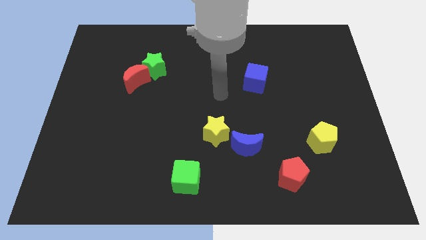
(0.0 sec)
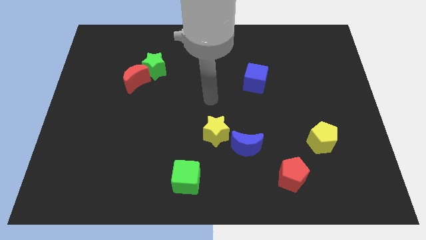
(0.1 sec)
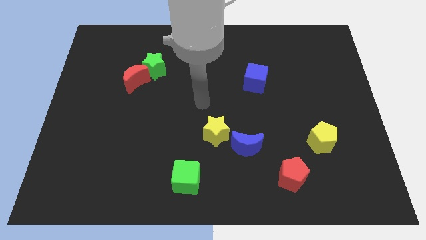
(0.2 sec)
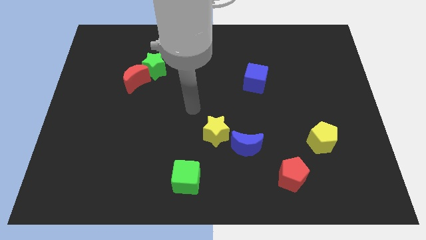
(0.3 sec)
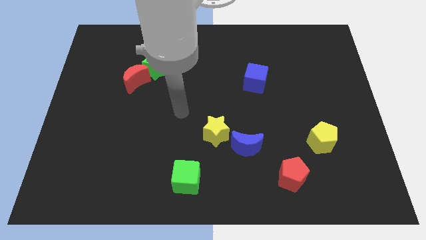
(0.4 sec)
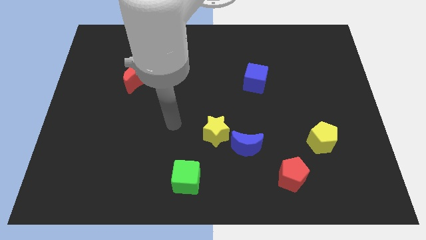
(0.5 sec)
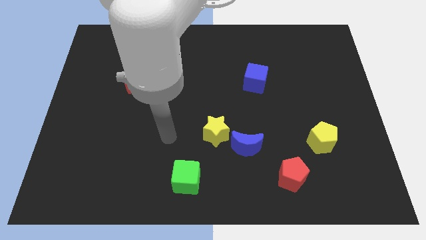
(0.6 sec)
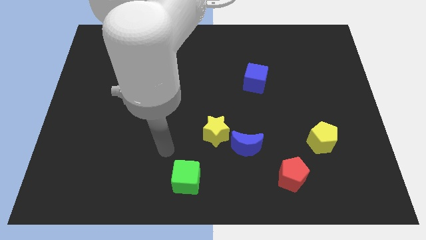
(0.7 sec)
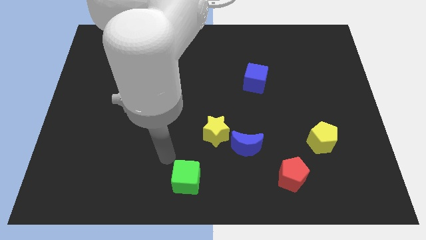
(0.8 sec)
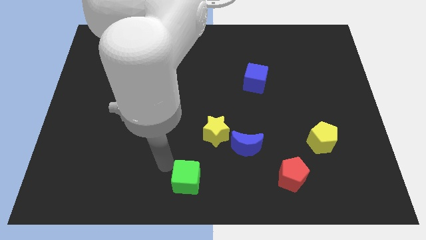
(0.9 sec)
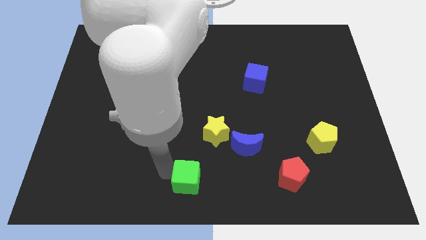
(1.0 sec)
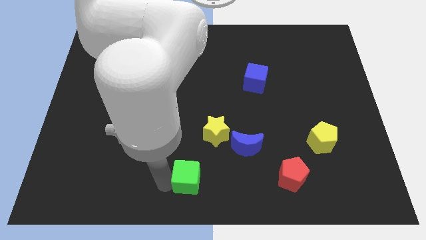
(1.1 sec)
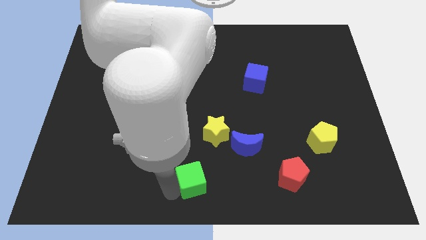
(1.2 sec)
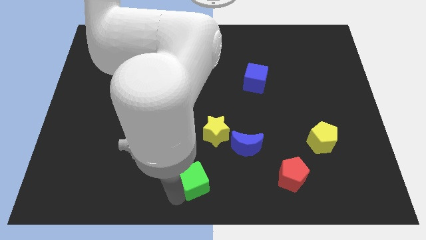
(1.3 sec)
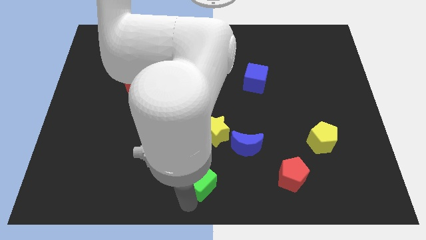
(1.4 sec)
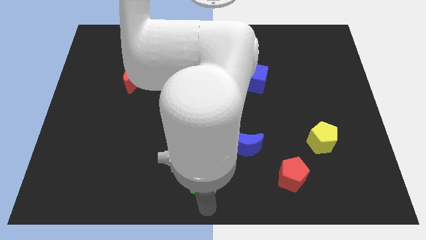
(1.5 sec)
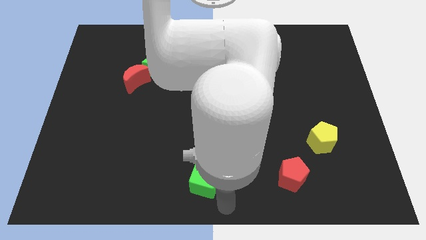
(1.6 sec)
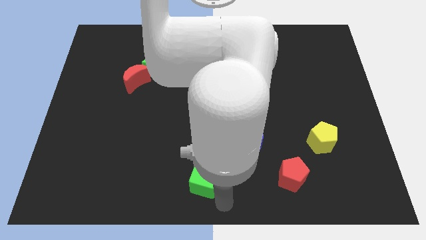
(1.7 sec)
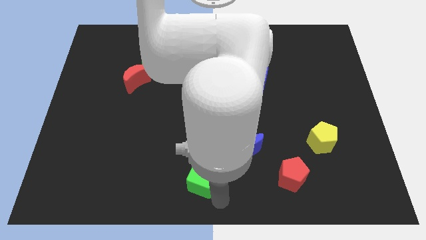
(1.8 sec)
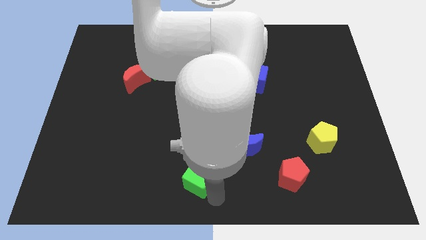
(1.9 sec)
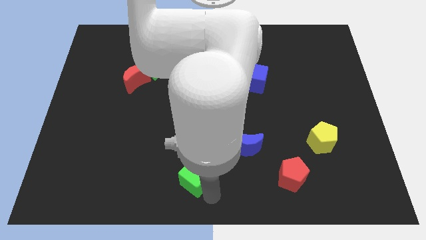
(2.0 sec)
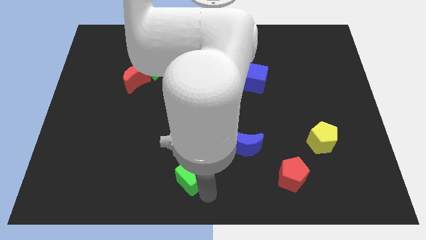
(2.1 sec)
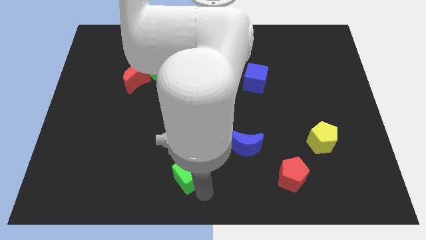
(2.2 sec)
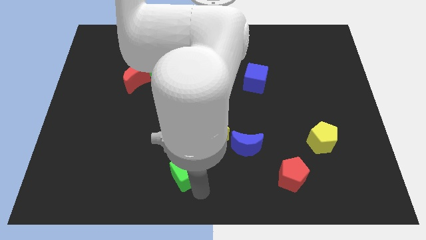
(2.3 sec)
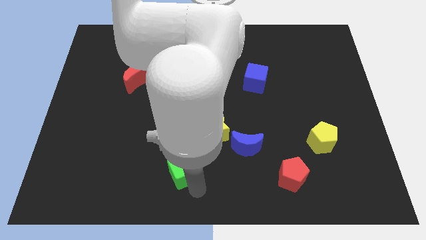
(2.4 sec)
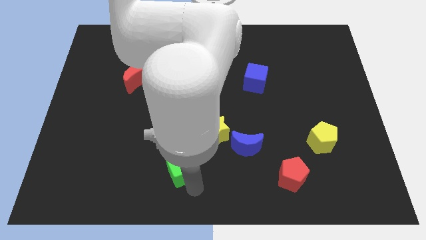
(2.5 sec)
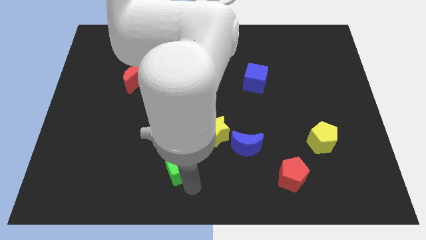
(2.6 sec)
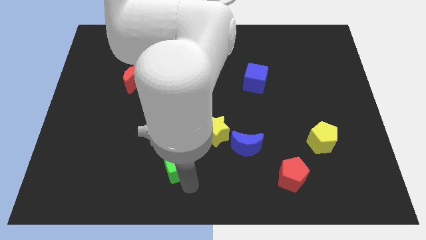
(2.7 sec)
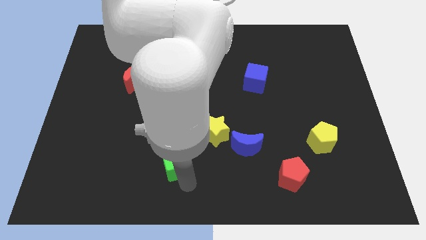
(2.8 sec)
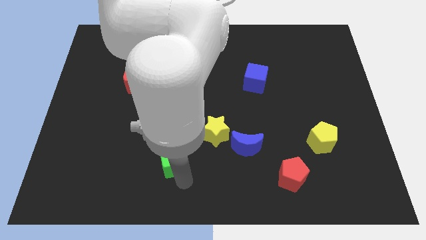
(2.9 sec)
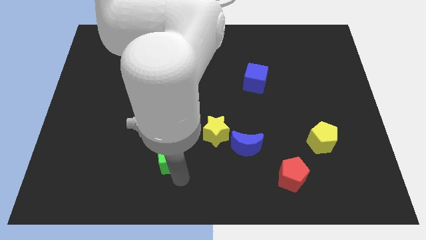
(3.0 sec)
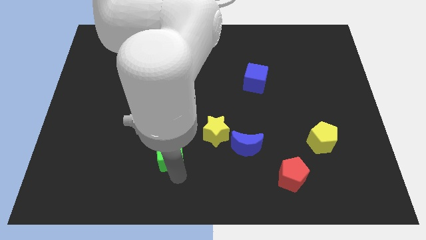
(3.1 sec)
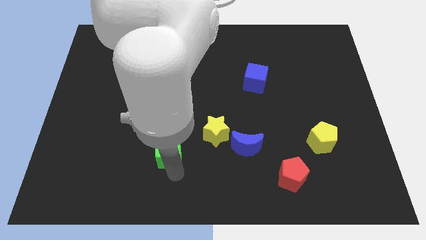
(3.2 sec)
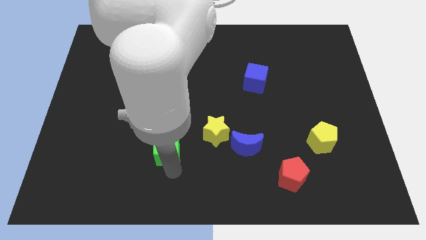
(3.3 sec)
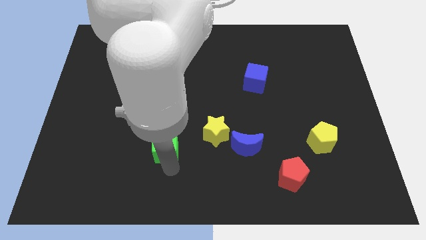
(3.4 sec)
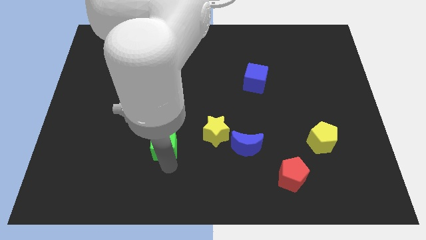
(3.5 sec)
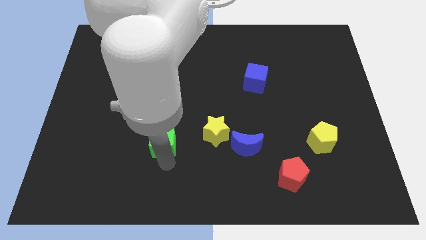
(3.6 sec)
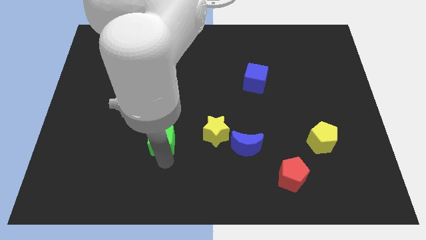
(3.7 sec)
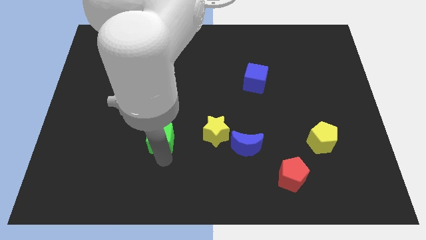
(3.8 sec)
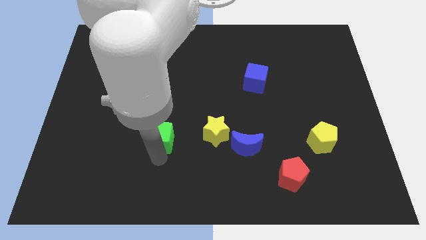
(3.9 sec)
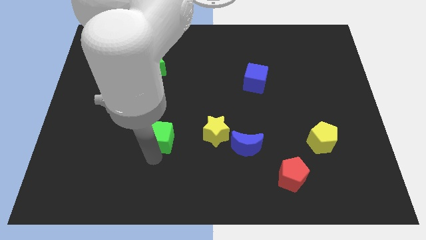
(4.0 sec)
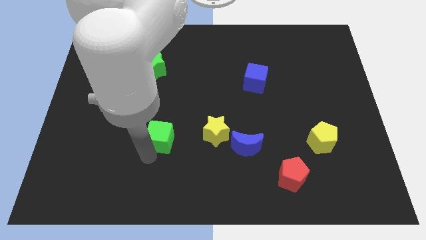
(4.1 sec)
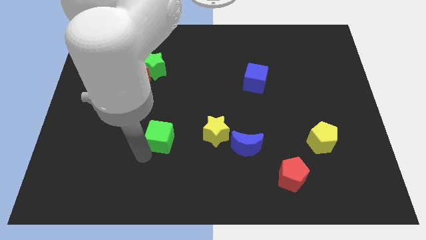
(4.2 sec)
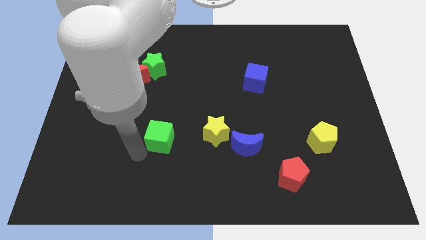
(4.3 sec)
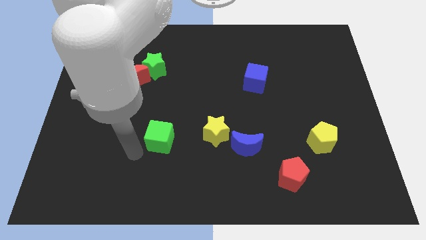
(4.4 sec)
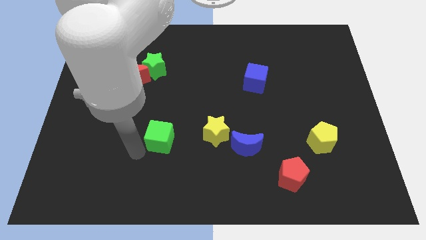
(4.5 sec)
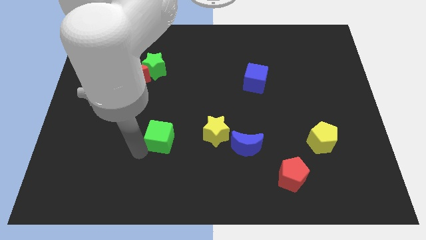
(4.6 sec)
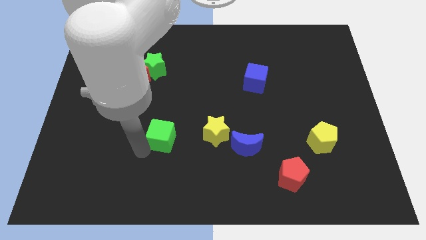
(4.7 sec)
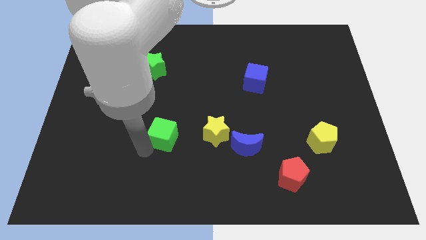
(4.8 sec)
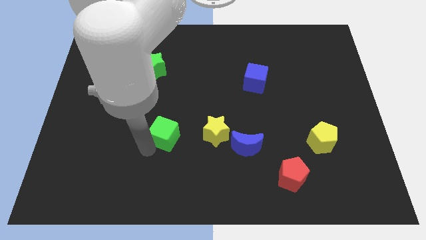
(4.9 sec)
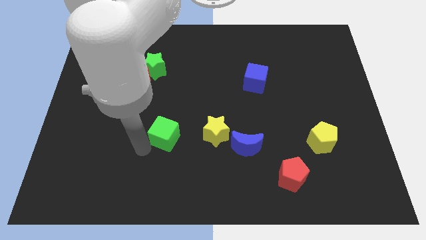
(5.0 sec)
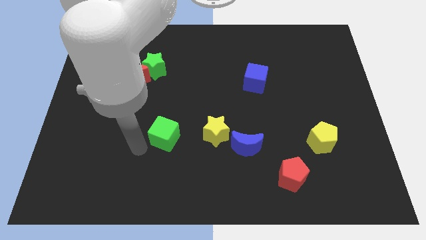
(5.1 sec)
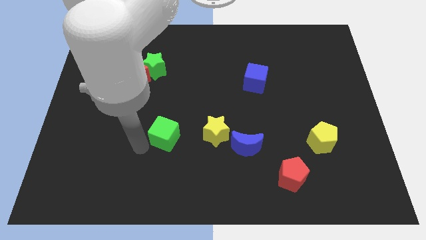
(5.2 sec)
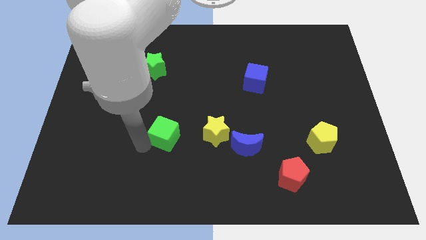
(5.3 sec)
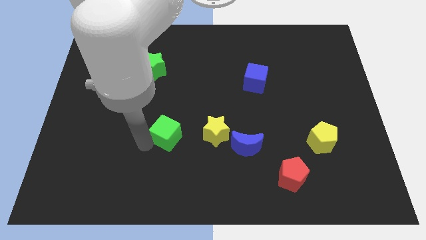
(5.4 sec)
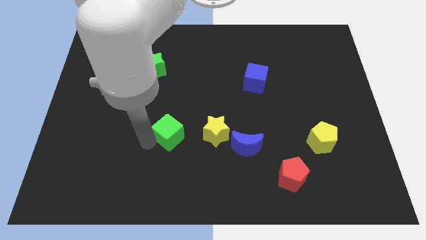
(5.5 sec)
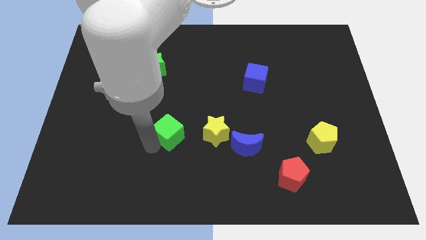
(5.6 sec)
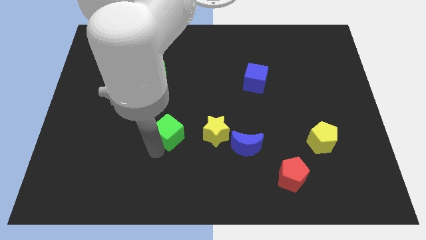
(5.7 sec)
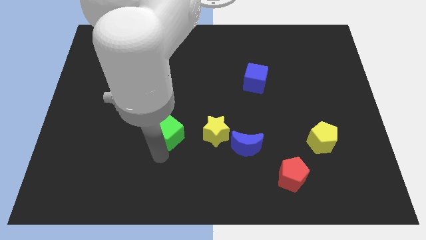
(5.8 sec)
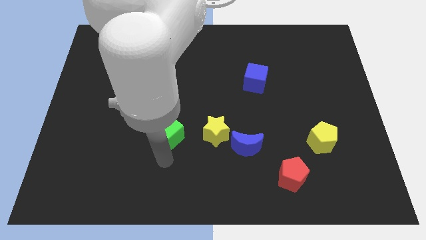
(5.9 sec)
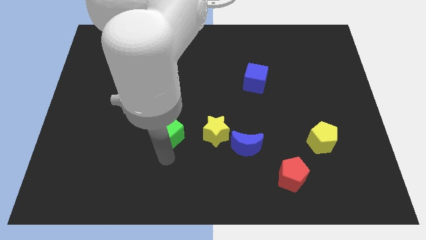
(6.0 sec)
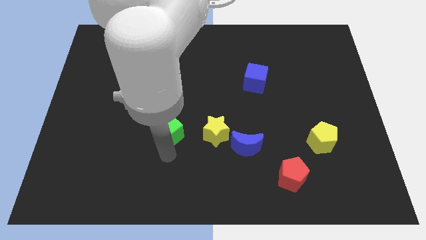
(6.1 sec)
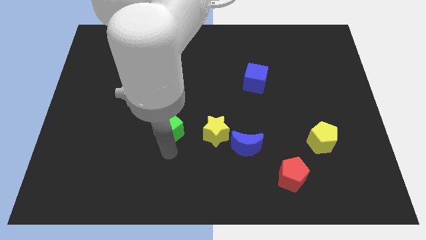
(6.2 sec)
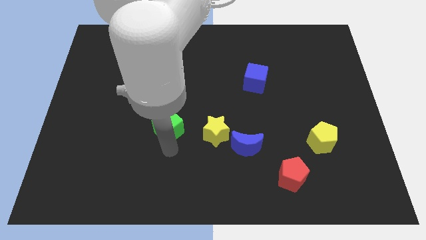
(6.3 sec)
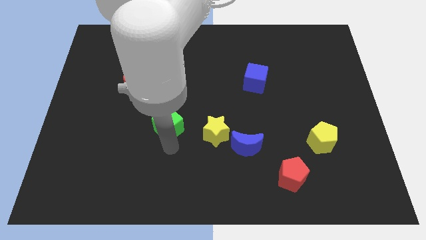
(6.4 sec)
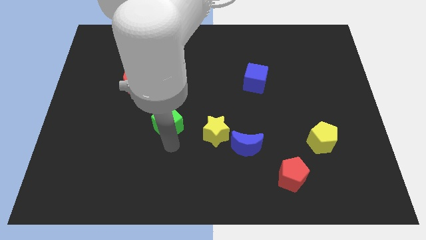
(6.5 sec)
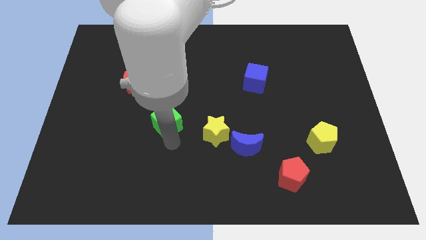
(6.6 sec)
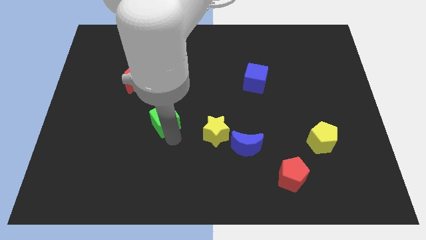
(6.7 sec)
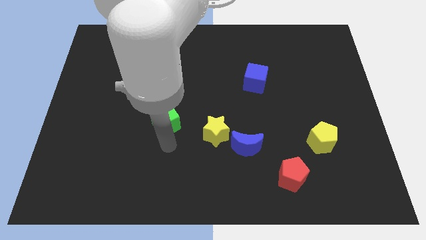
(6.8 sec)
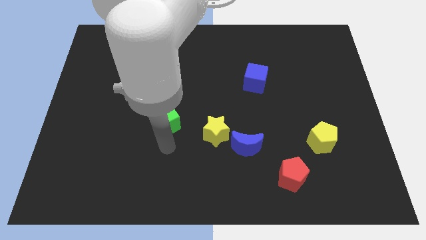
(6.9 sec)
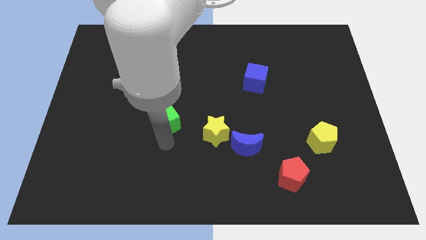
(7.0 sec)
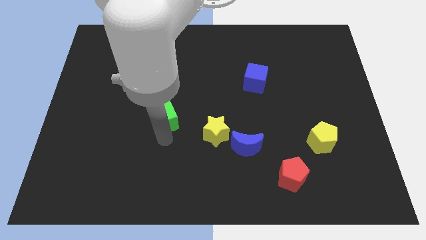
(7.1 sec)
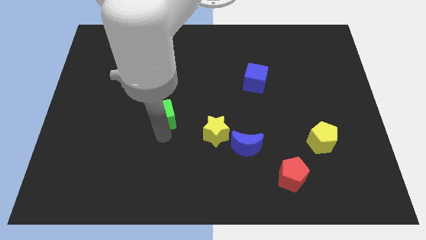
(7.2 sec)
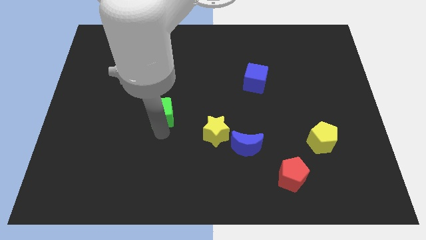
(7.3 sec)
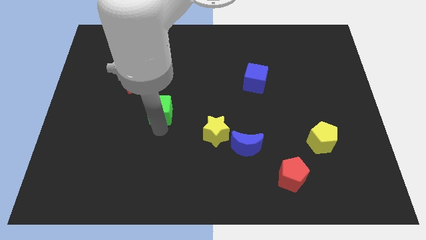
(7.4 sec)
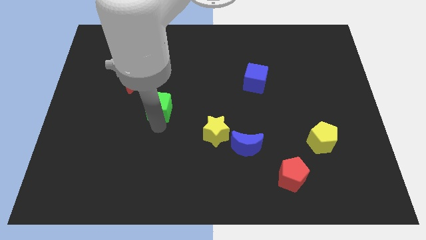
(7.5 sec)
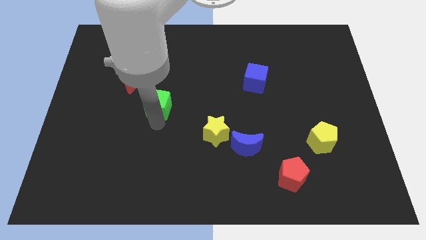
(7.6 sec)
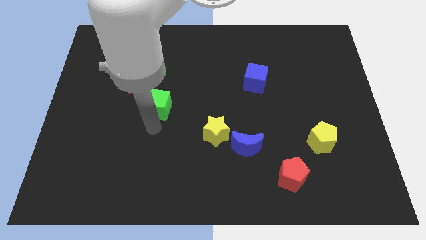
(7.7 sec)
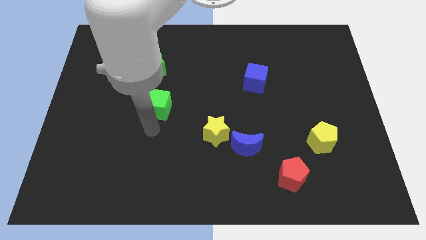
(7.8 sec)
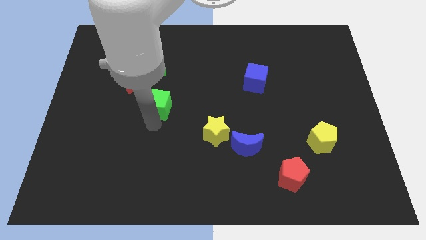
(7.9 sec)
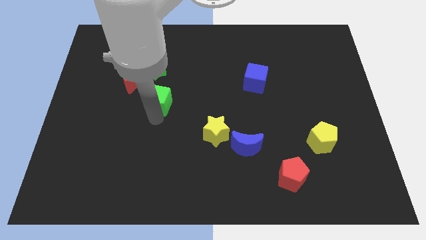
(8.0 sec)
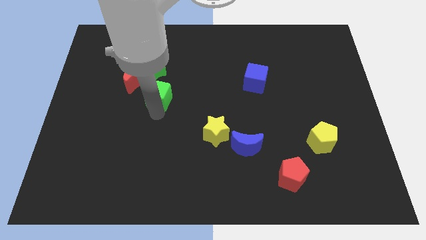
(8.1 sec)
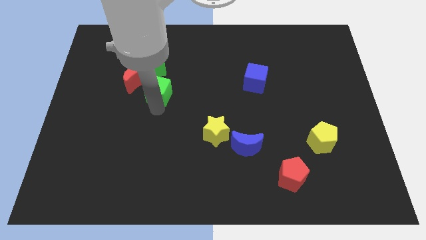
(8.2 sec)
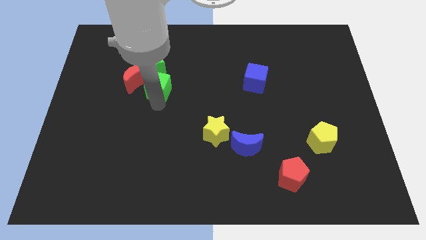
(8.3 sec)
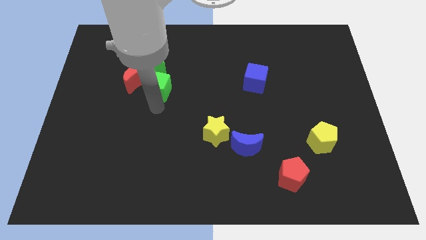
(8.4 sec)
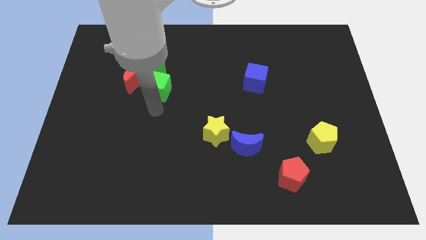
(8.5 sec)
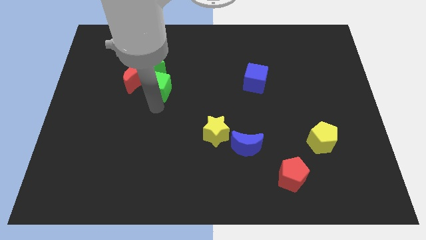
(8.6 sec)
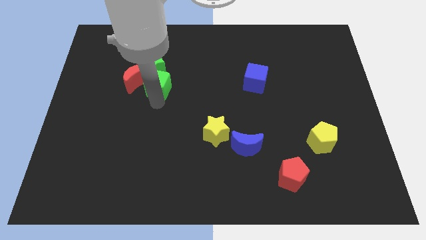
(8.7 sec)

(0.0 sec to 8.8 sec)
move the green cube to the green star
